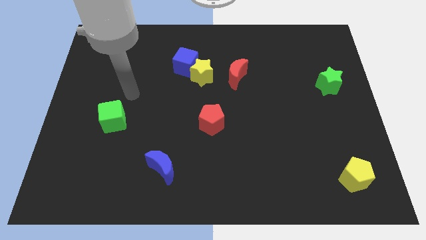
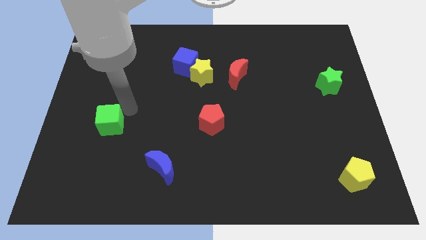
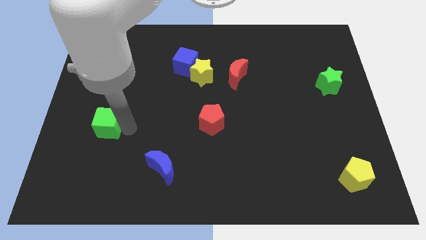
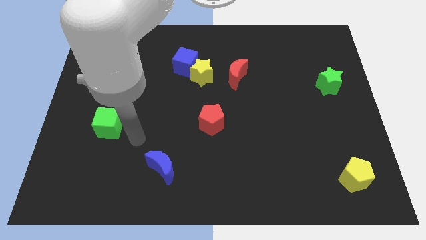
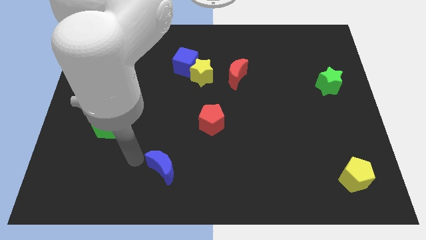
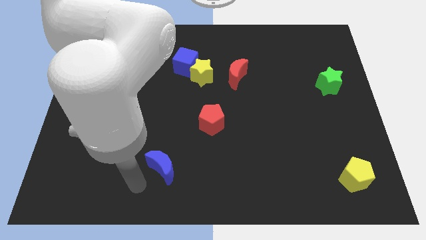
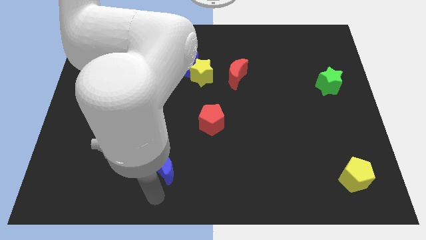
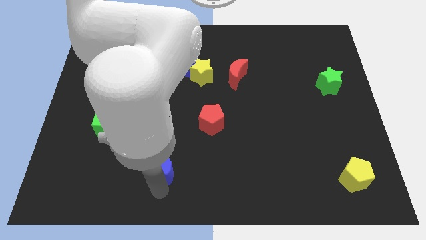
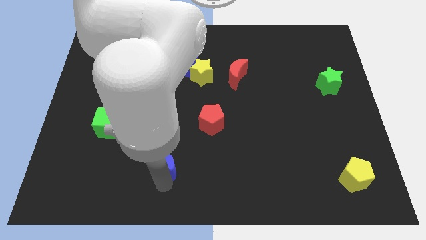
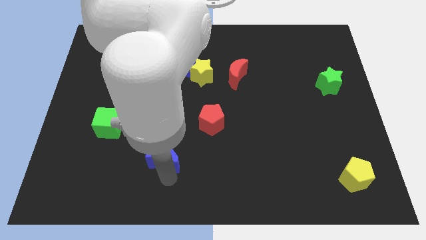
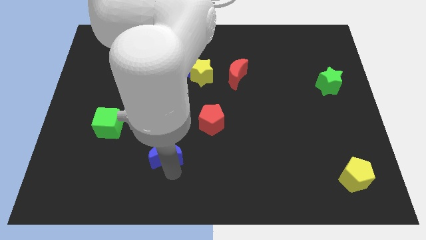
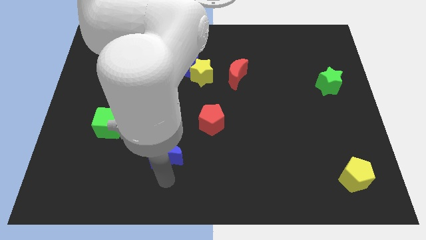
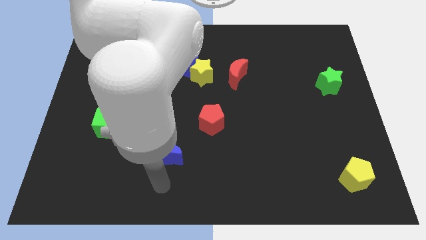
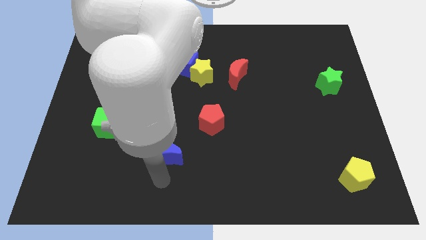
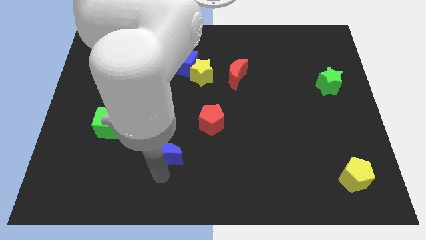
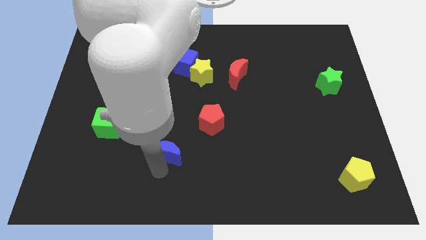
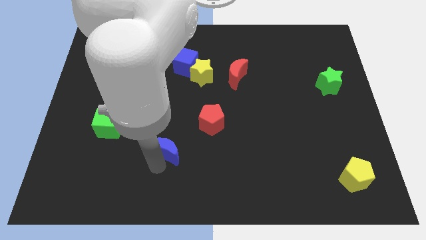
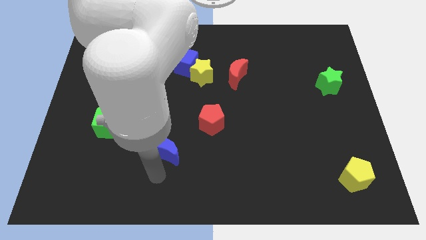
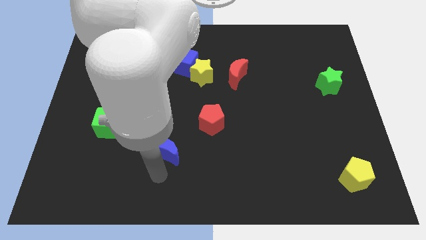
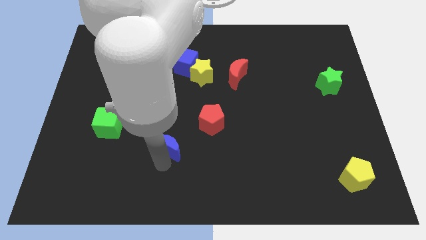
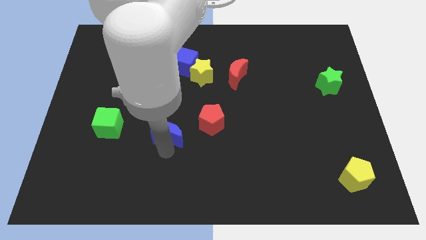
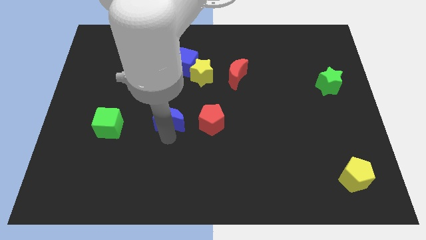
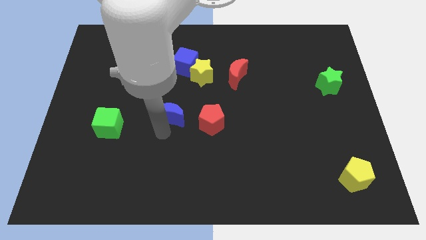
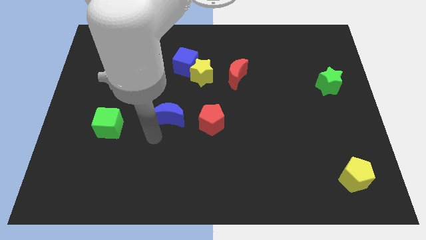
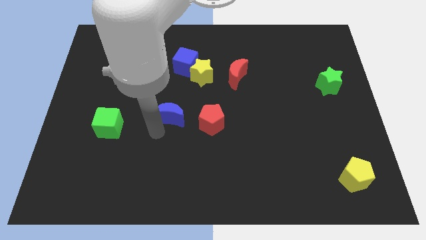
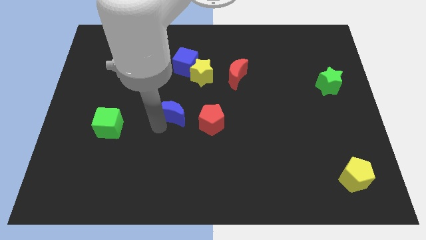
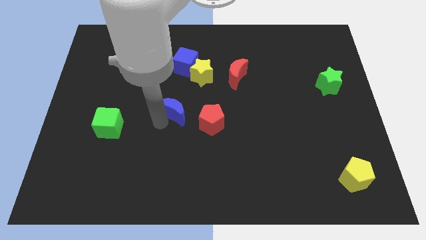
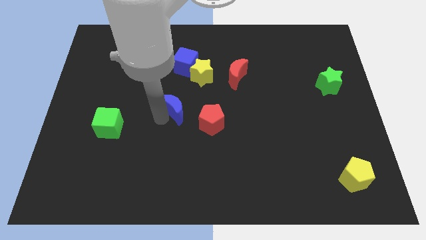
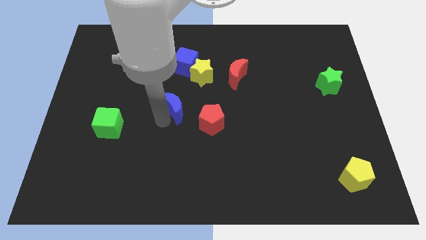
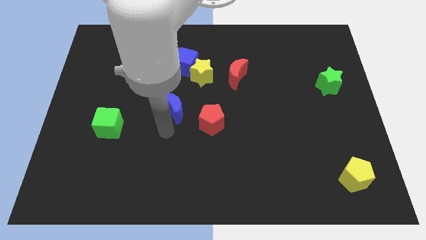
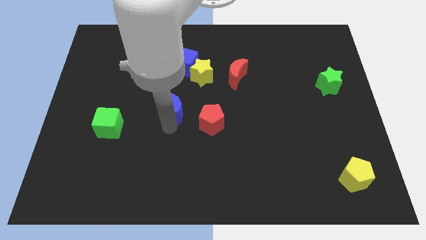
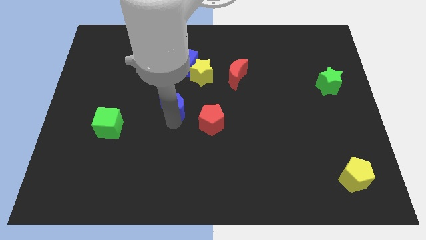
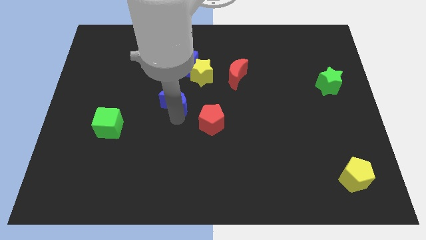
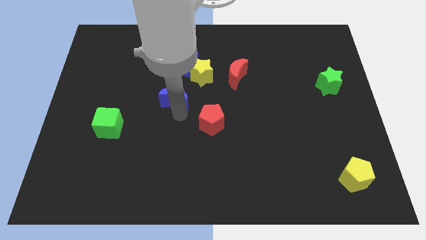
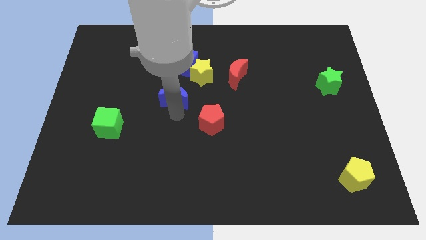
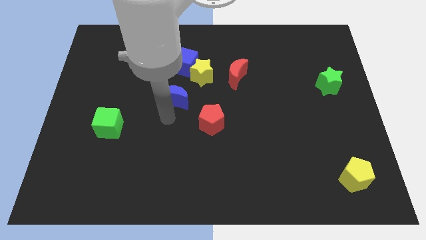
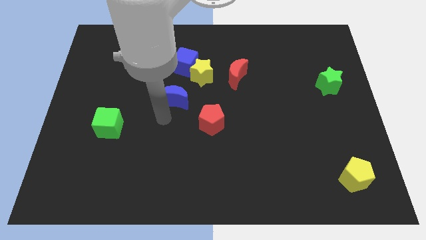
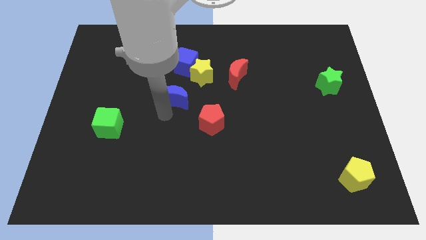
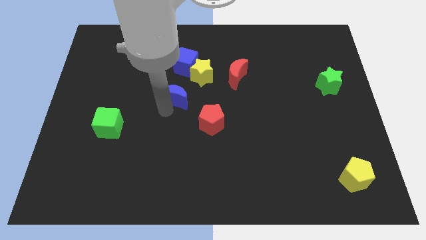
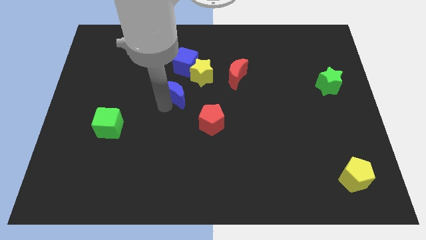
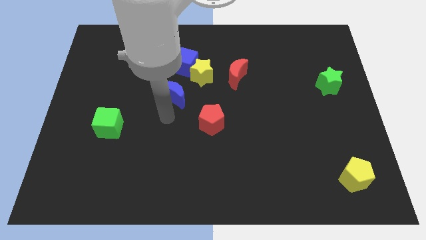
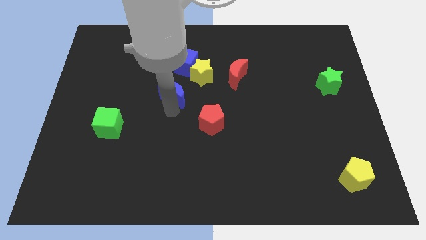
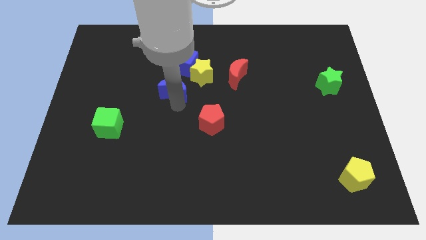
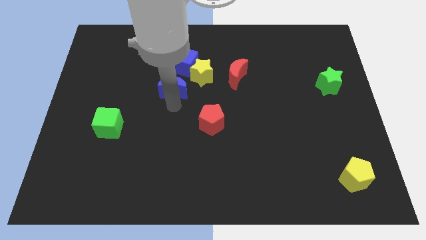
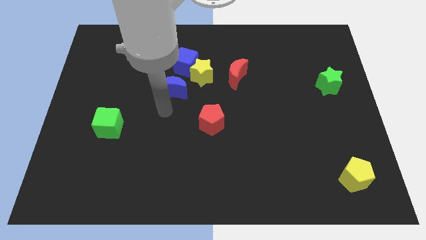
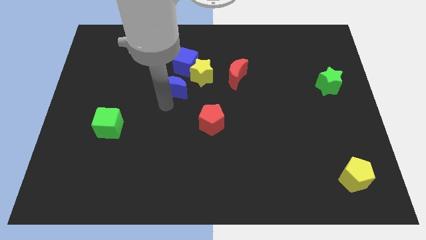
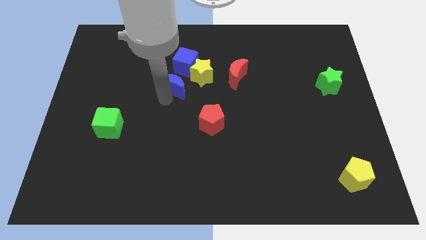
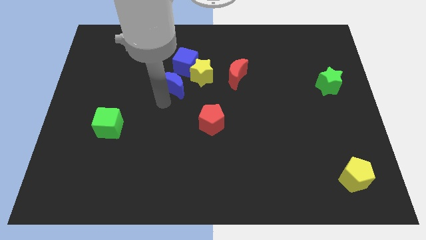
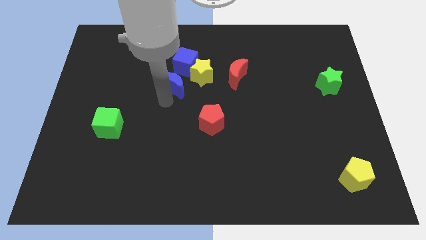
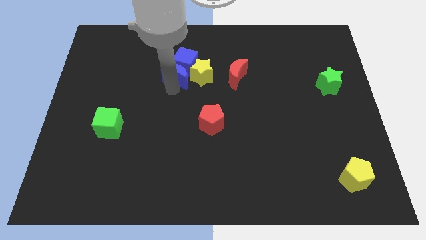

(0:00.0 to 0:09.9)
push the blue moon to the blue cube

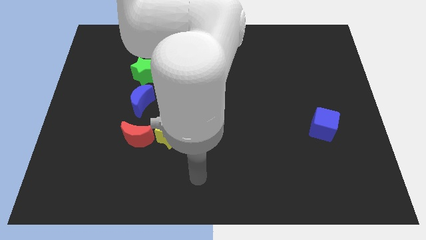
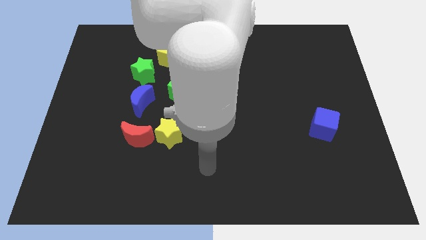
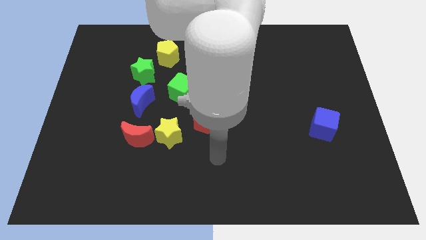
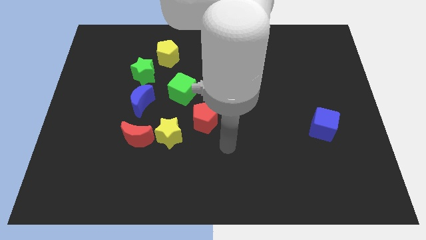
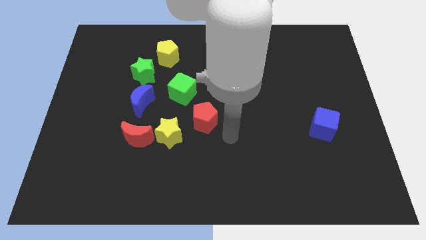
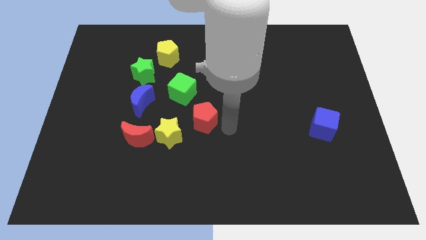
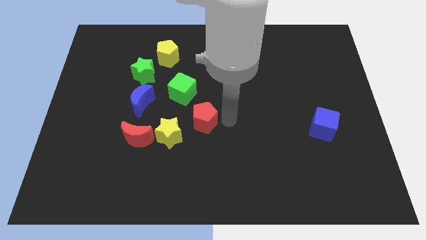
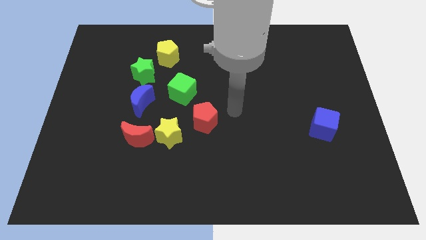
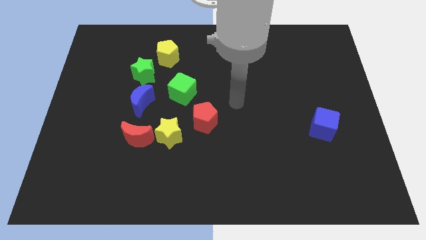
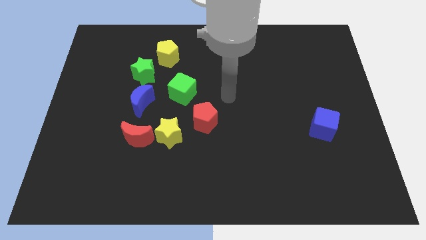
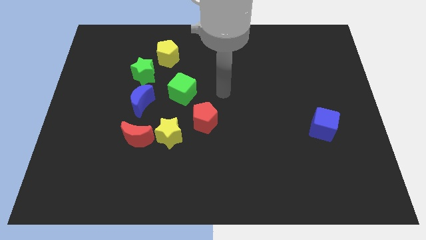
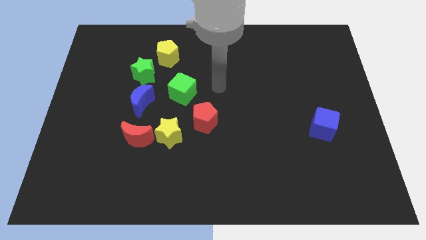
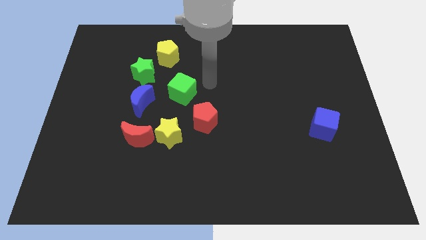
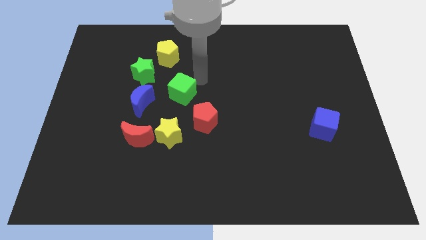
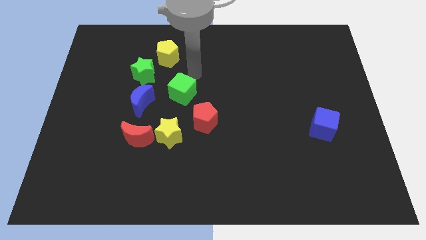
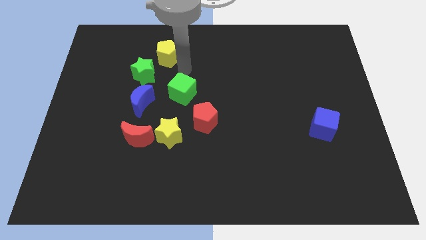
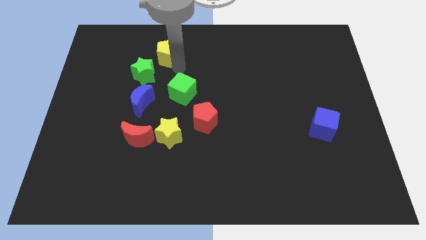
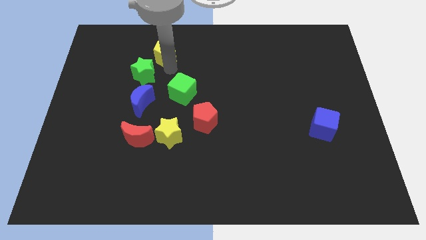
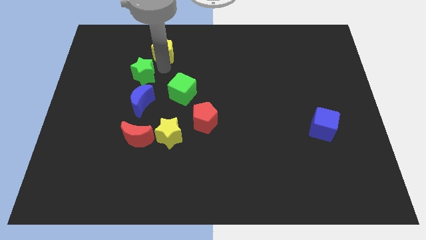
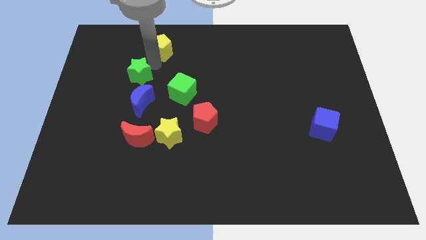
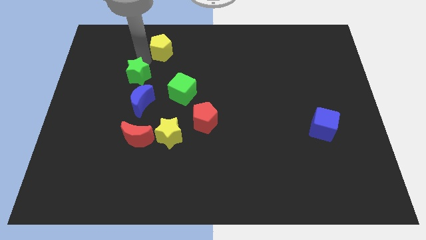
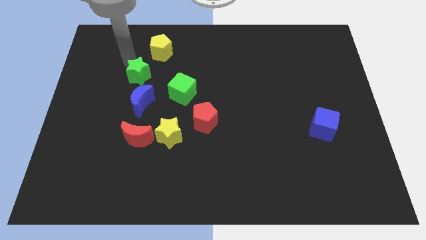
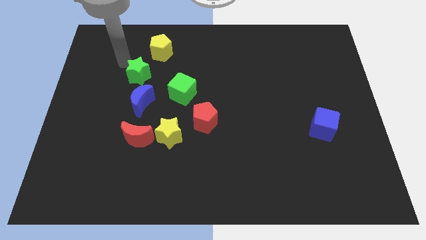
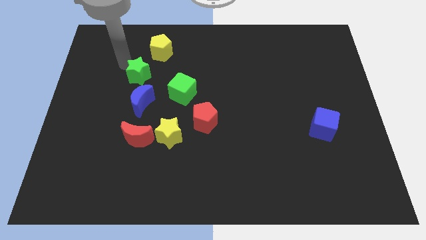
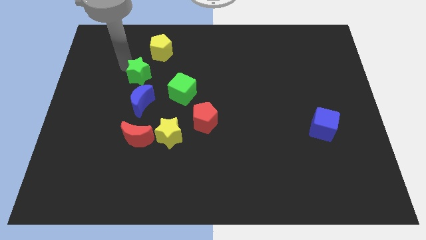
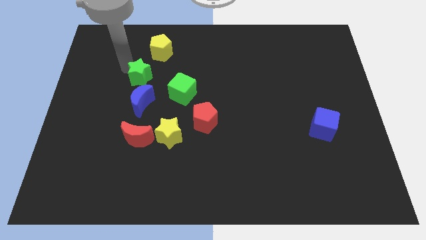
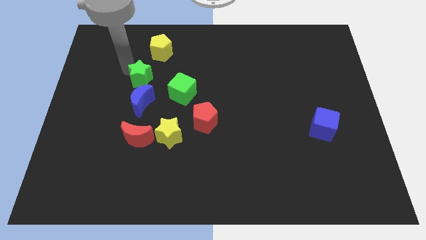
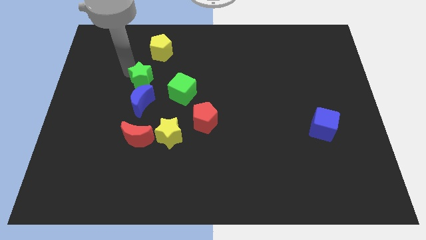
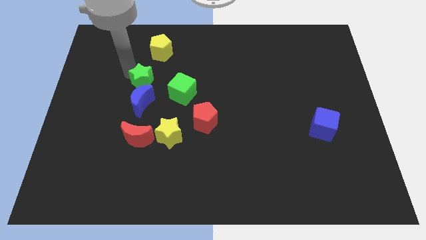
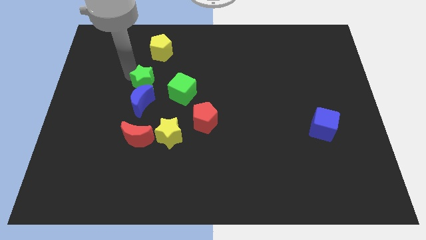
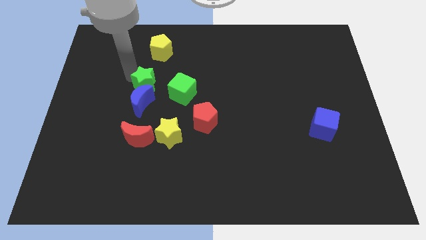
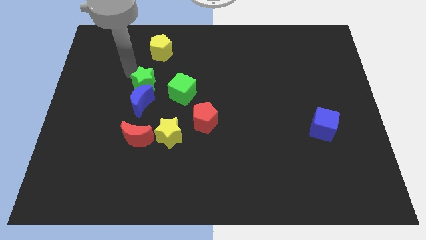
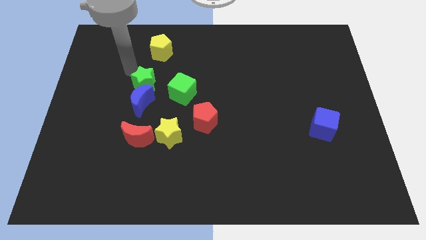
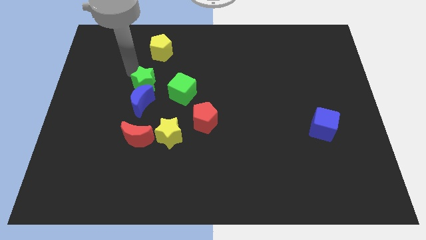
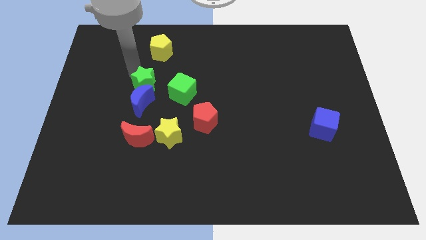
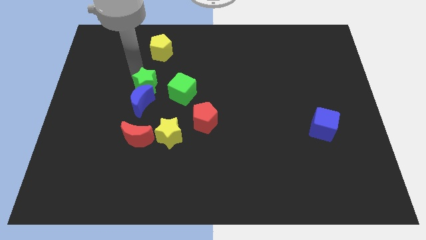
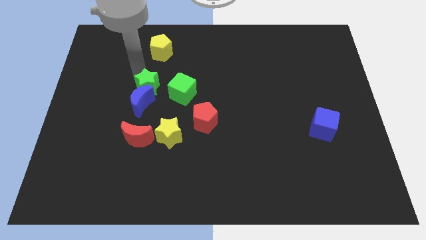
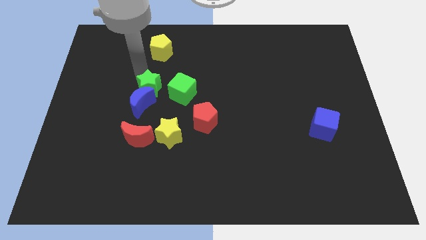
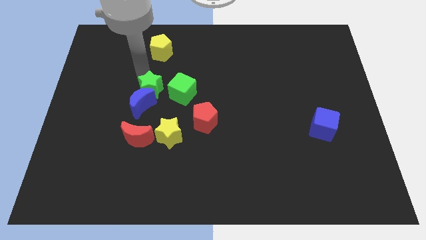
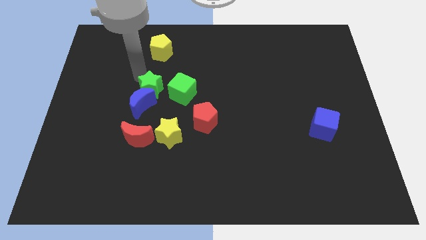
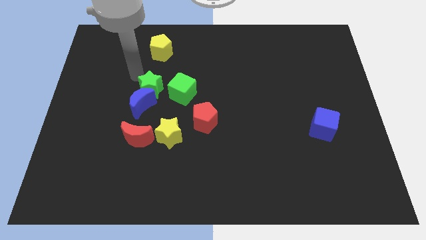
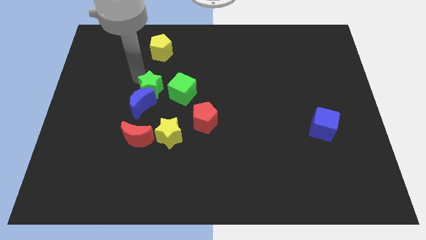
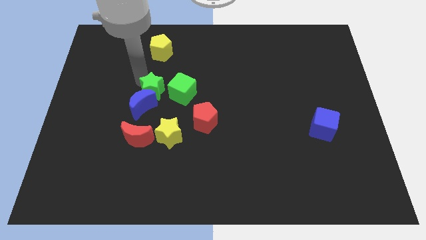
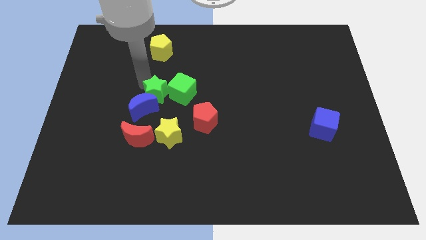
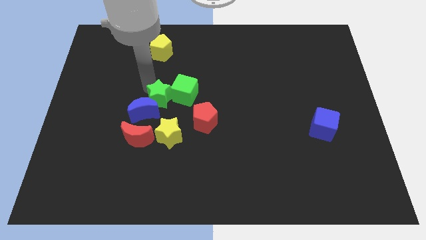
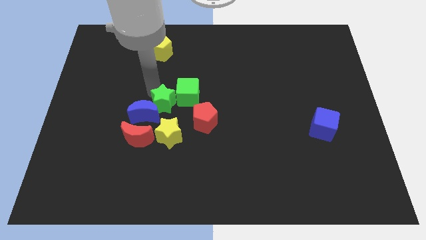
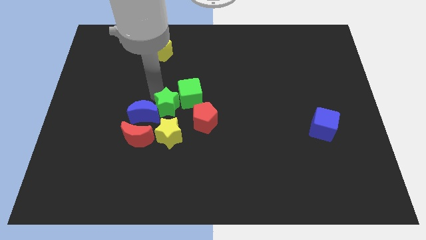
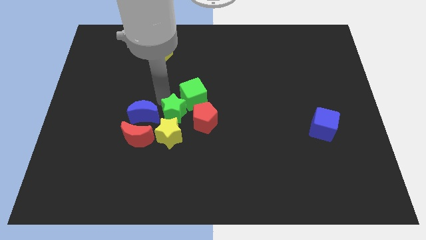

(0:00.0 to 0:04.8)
put the green star close to the yellow star
